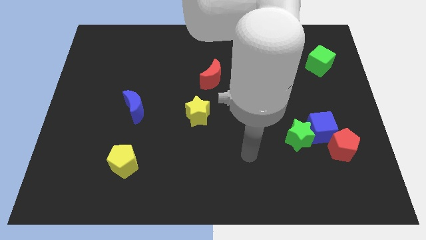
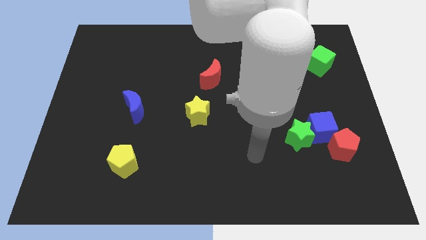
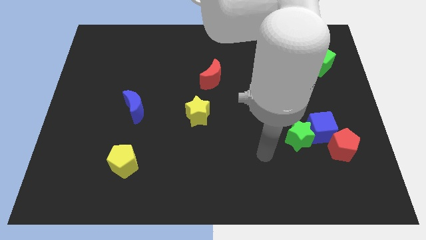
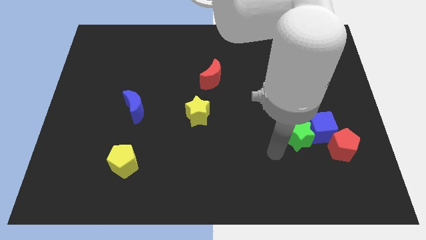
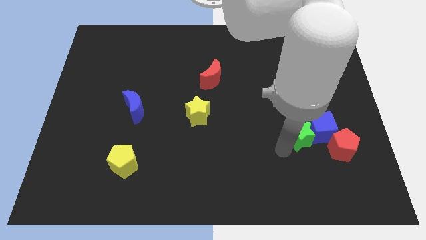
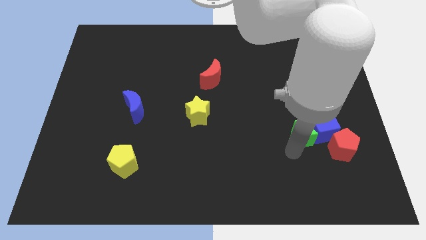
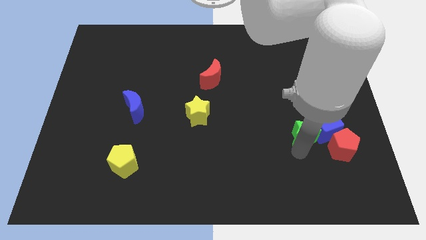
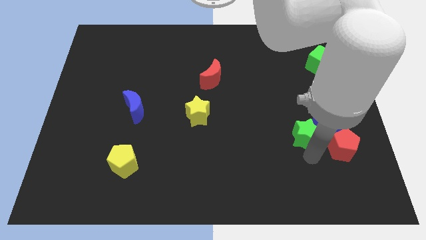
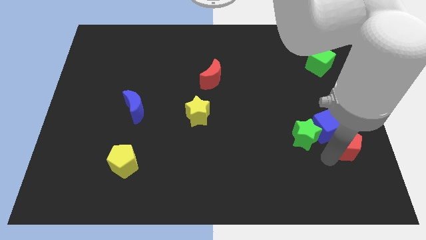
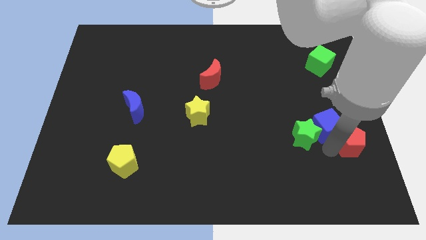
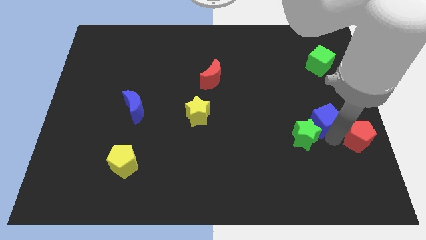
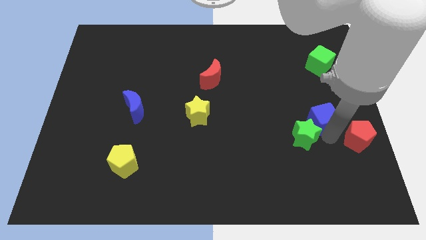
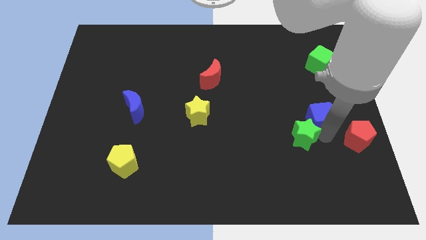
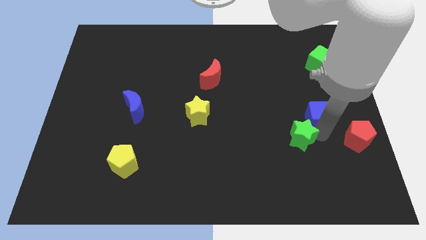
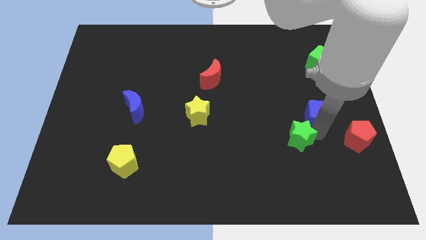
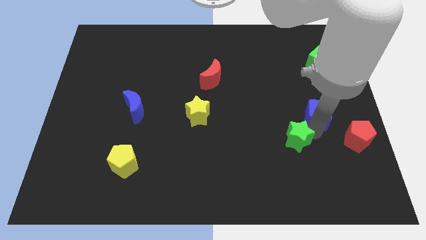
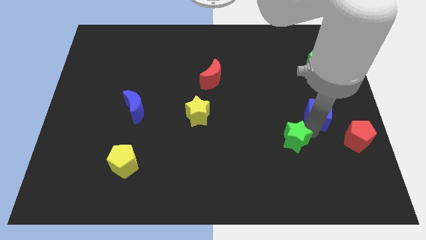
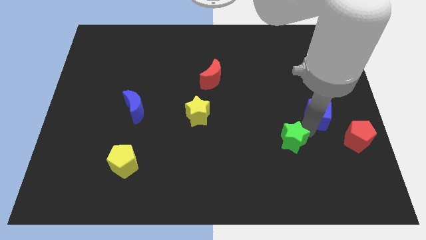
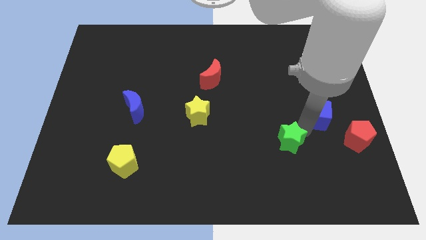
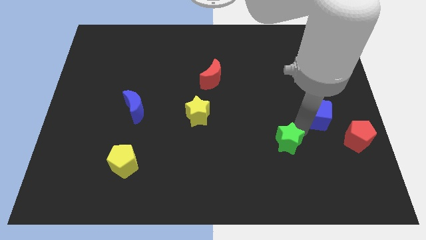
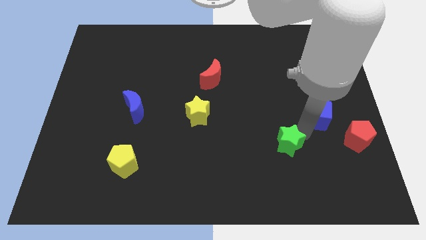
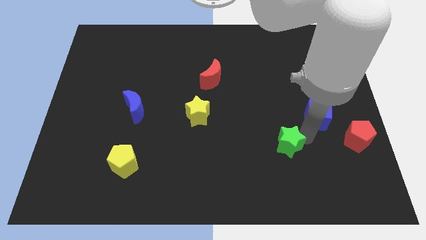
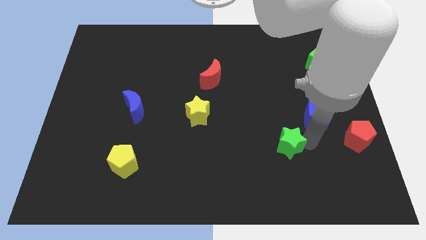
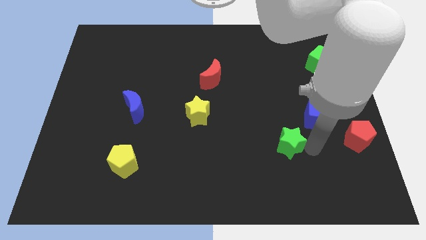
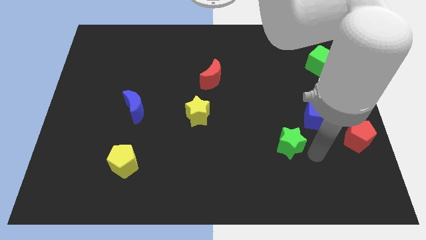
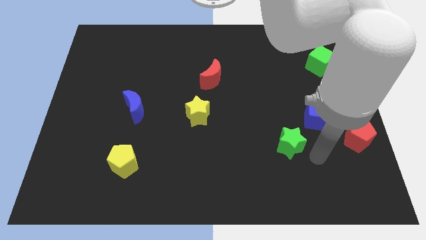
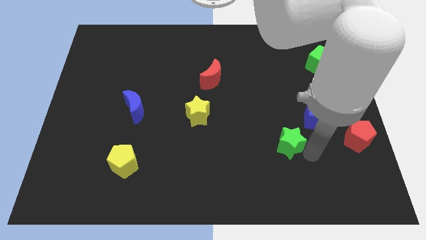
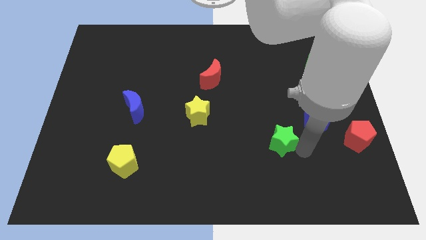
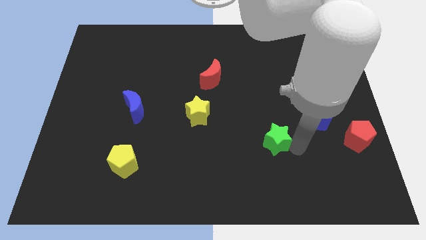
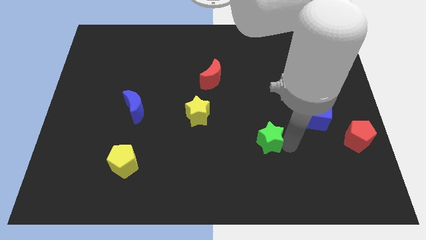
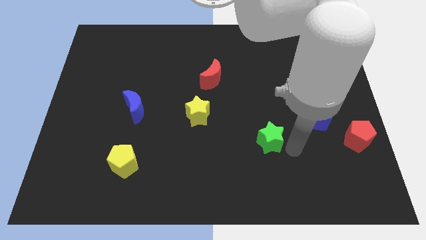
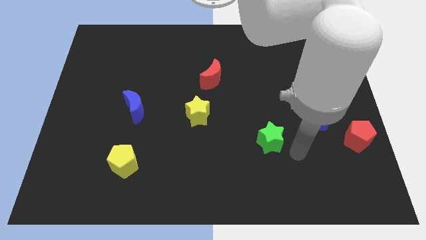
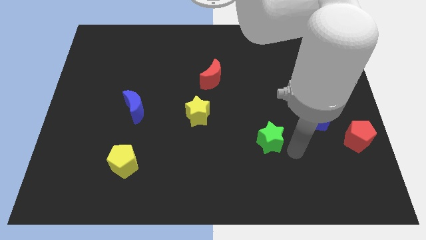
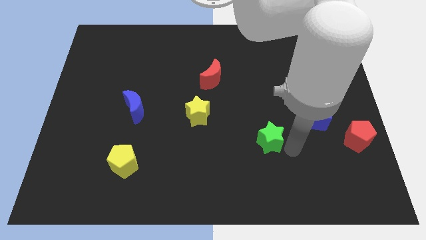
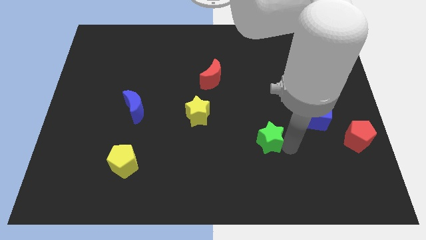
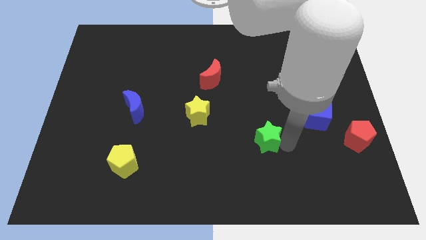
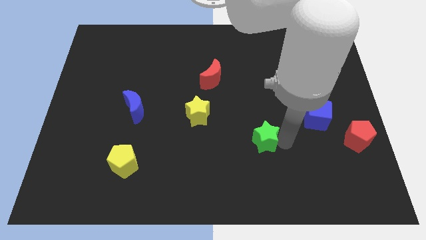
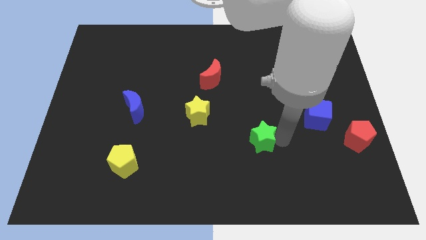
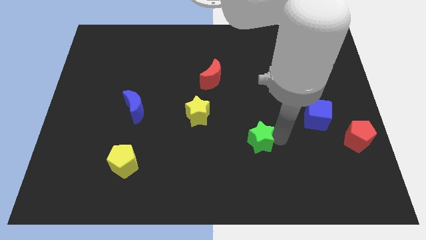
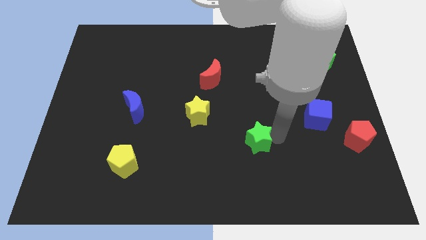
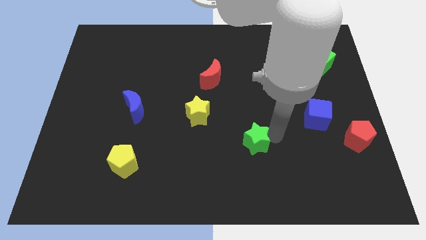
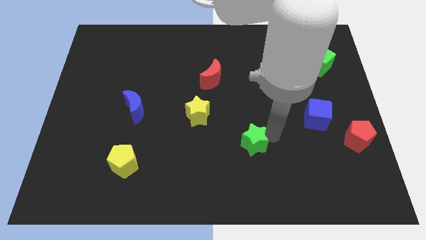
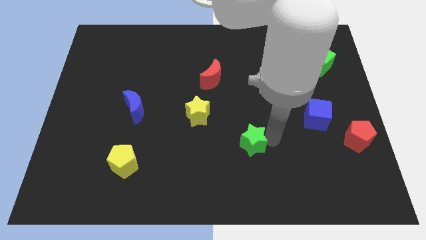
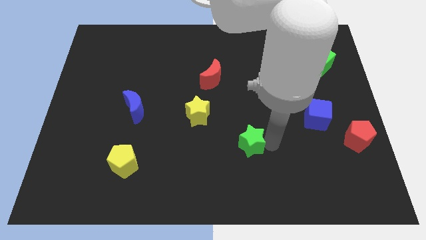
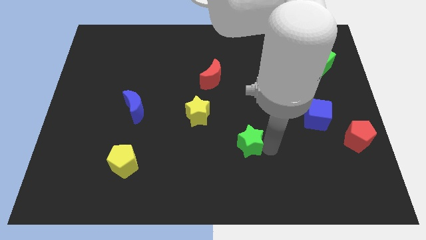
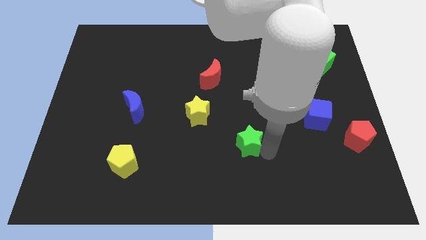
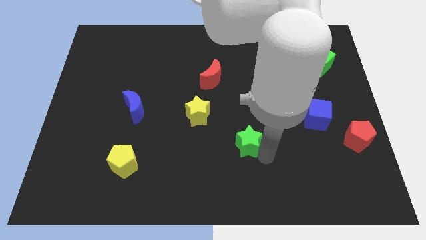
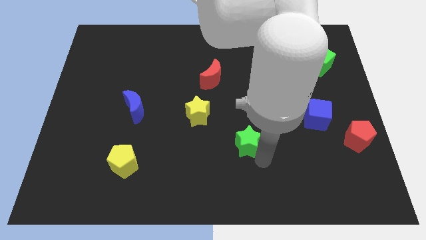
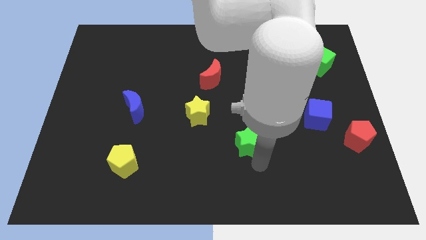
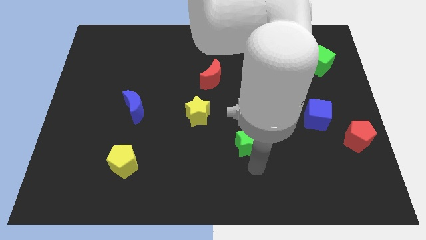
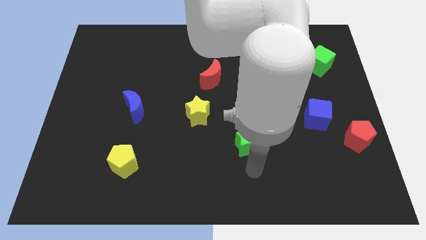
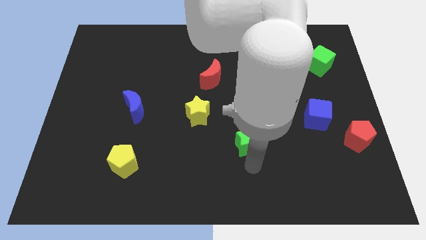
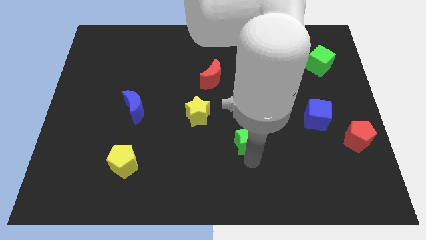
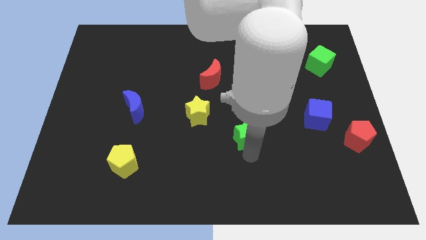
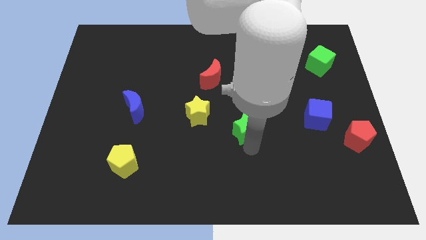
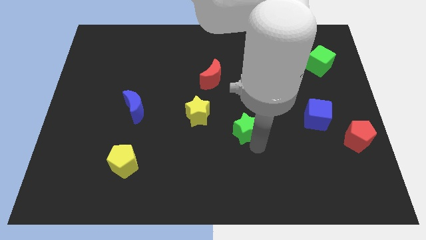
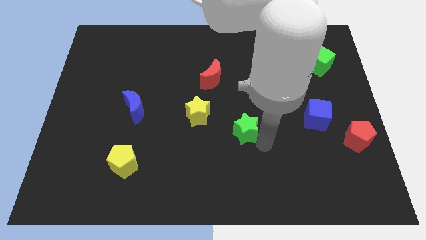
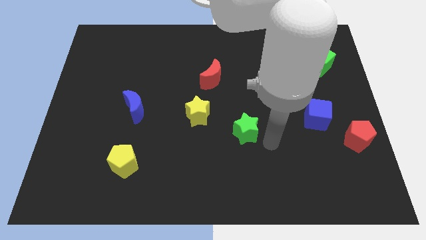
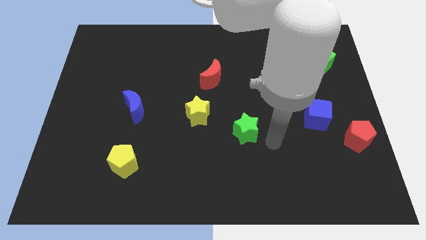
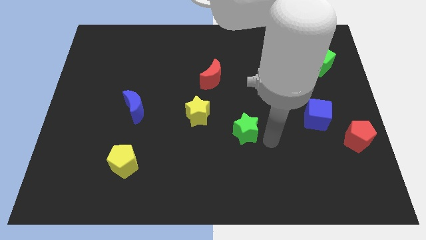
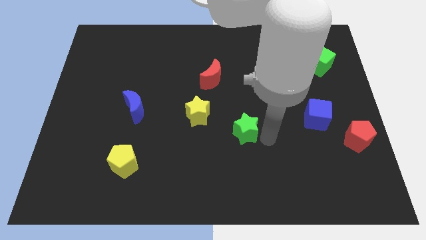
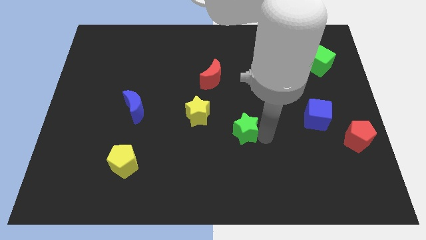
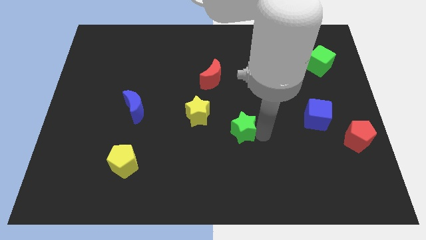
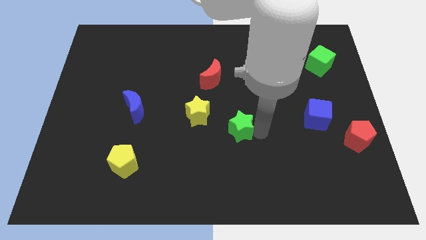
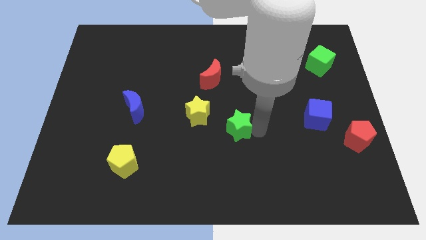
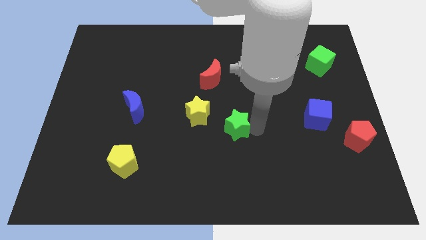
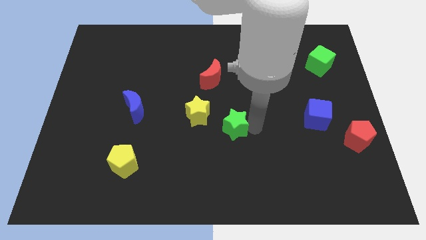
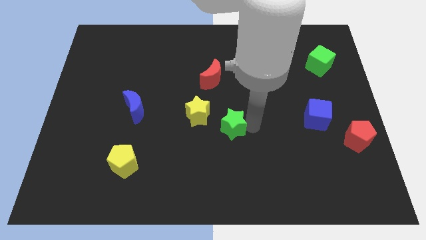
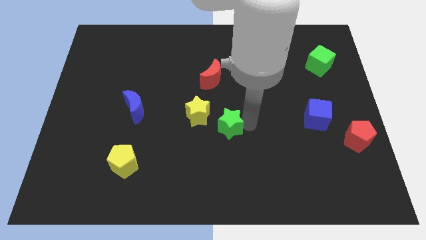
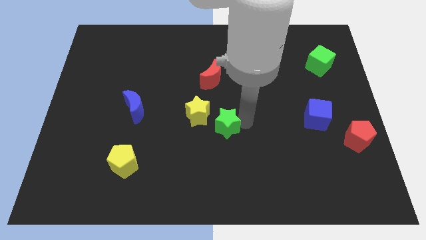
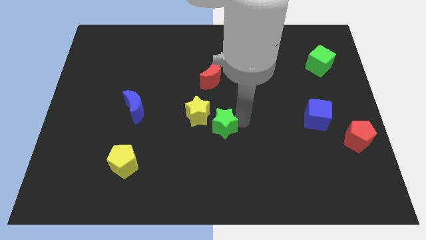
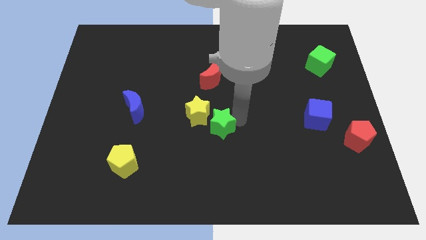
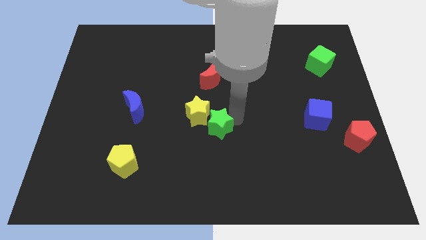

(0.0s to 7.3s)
move the green star next to the yellow star
